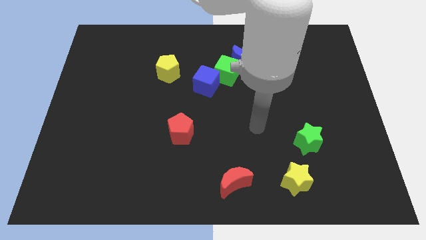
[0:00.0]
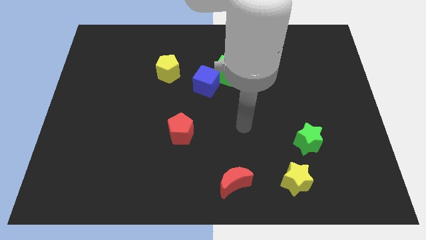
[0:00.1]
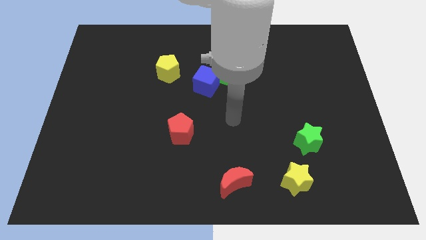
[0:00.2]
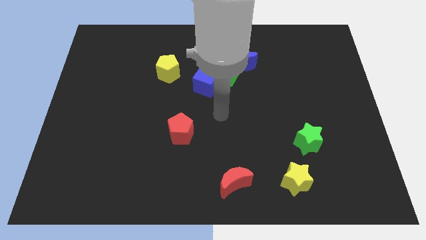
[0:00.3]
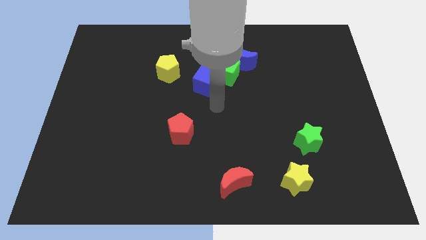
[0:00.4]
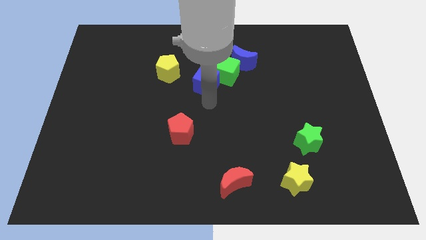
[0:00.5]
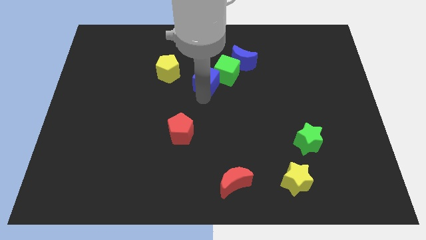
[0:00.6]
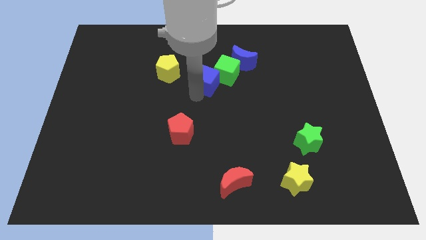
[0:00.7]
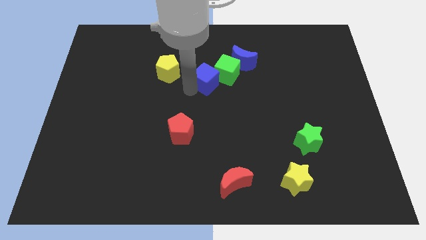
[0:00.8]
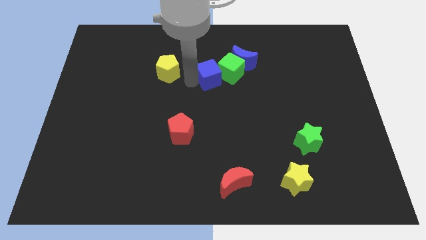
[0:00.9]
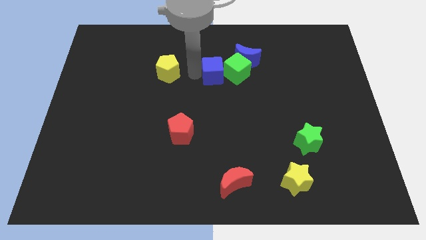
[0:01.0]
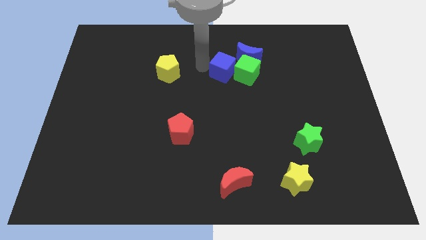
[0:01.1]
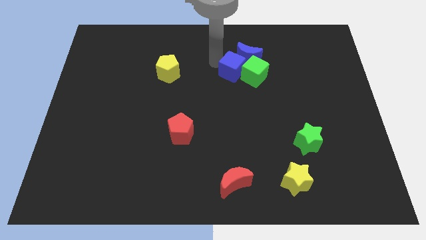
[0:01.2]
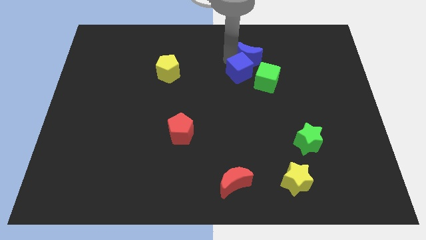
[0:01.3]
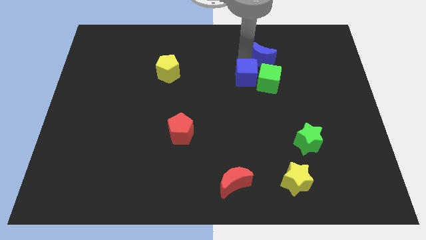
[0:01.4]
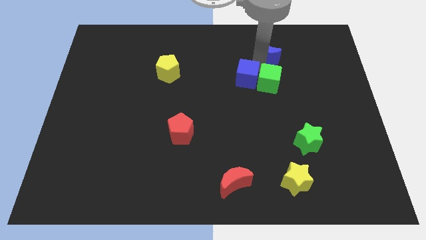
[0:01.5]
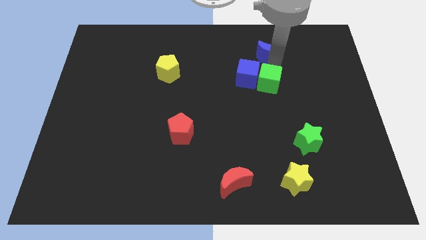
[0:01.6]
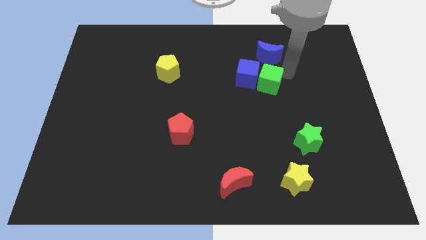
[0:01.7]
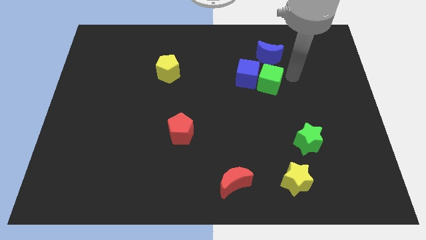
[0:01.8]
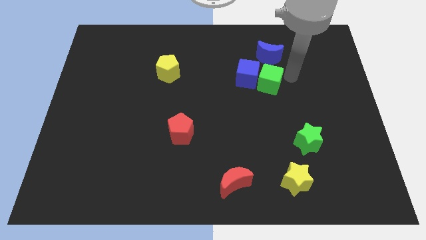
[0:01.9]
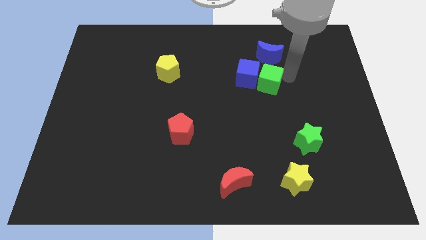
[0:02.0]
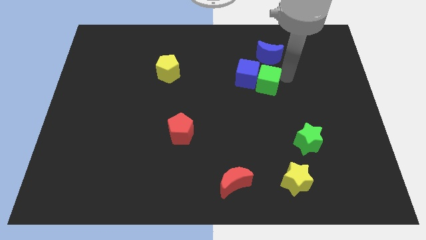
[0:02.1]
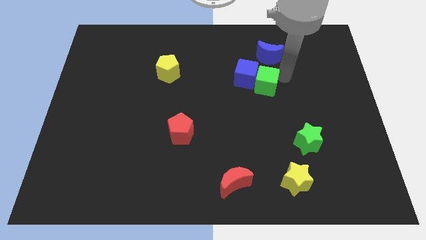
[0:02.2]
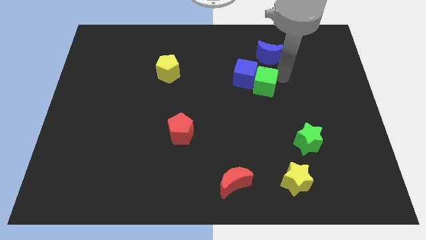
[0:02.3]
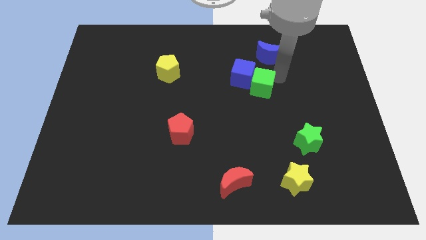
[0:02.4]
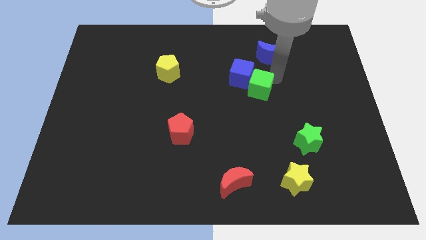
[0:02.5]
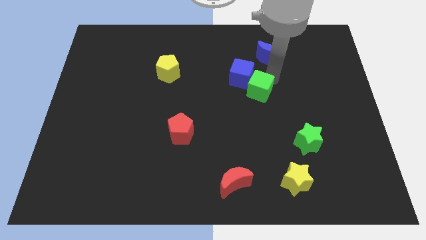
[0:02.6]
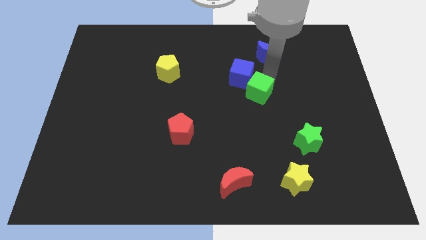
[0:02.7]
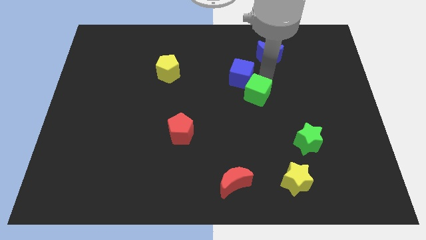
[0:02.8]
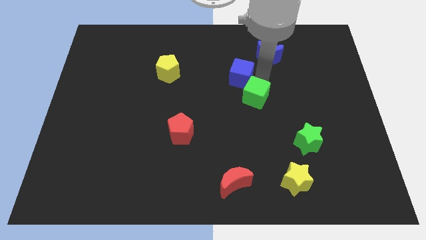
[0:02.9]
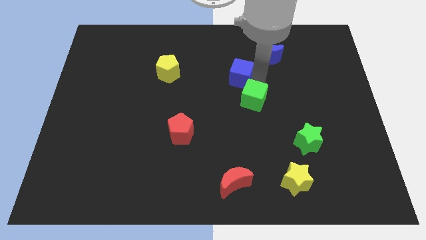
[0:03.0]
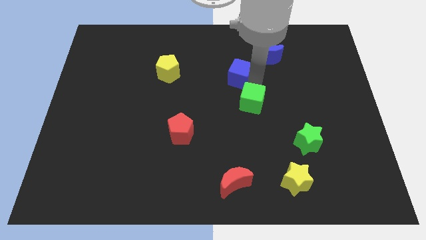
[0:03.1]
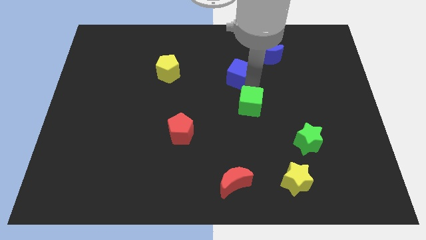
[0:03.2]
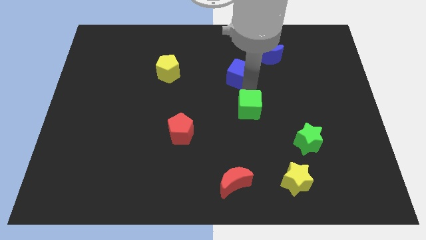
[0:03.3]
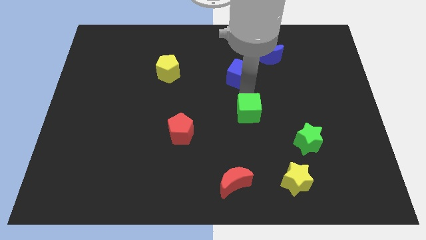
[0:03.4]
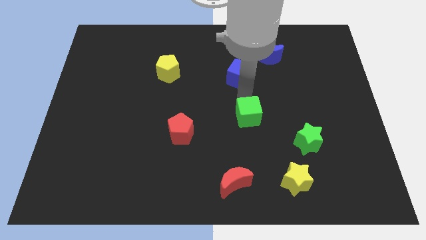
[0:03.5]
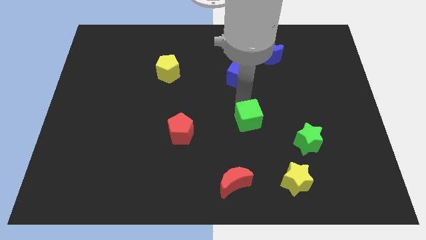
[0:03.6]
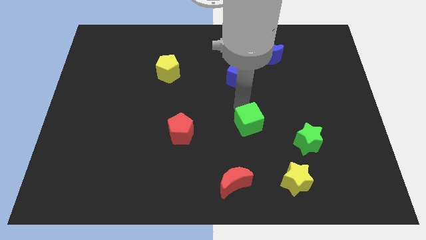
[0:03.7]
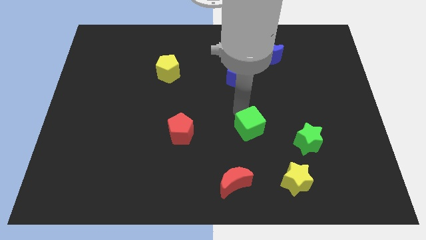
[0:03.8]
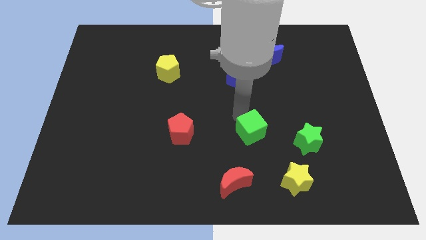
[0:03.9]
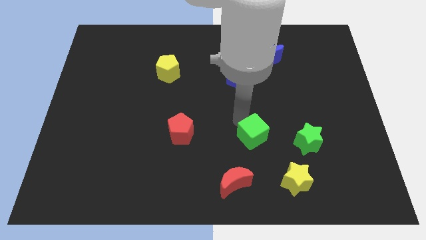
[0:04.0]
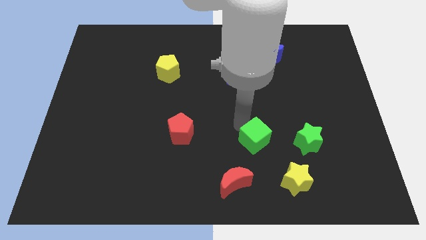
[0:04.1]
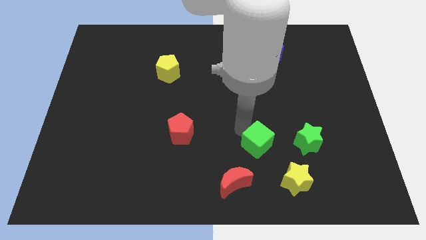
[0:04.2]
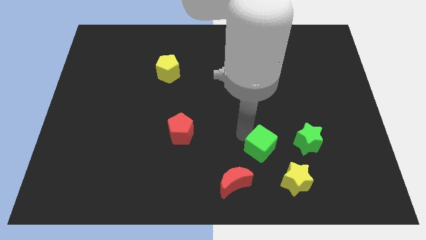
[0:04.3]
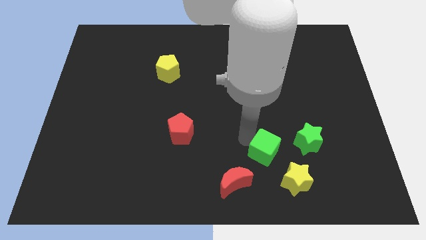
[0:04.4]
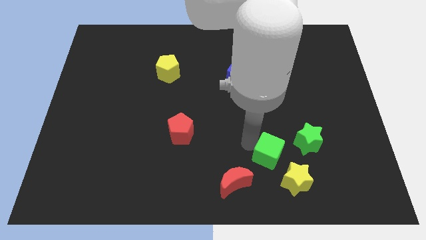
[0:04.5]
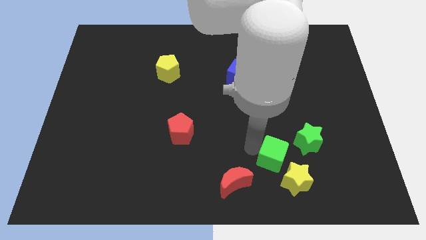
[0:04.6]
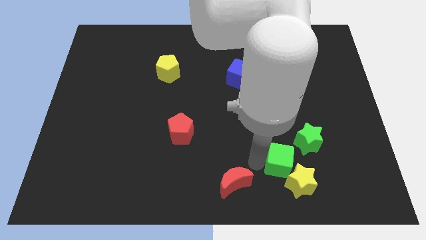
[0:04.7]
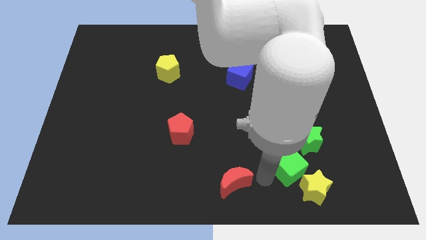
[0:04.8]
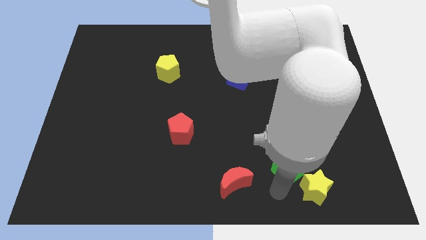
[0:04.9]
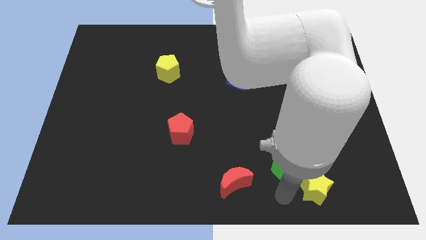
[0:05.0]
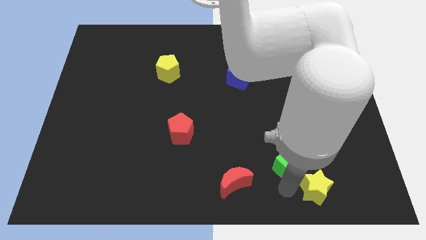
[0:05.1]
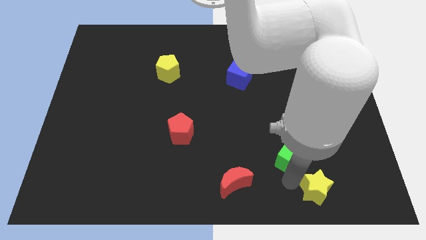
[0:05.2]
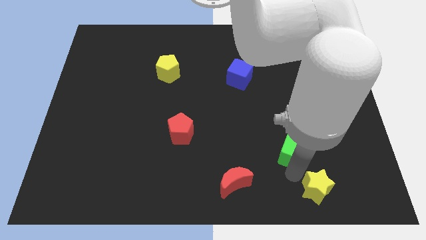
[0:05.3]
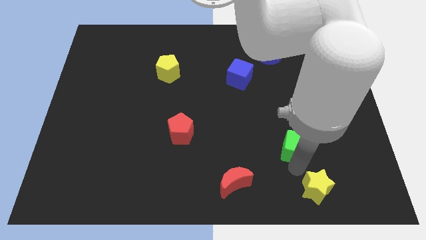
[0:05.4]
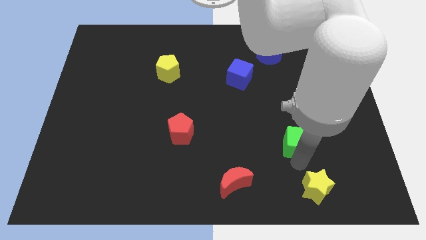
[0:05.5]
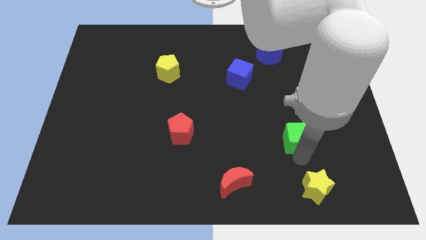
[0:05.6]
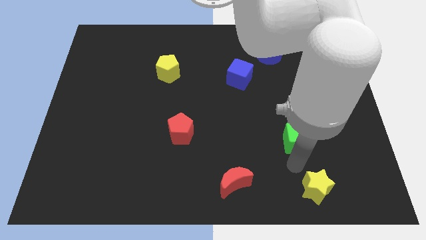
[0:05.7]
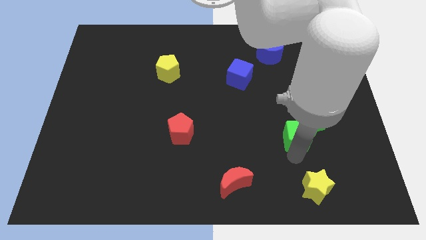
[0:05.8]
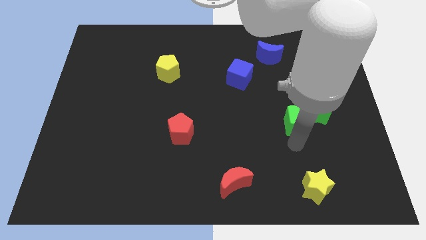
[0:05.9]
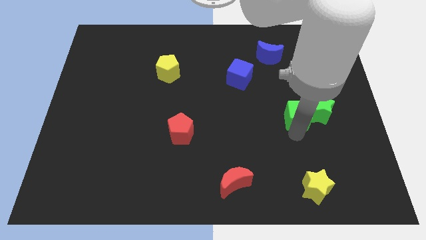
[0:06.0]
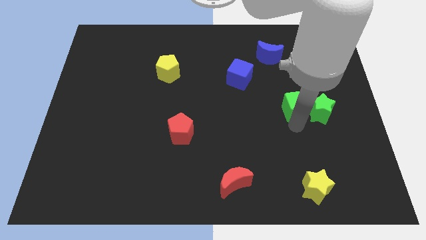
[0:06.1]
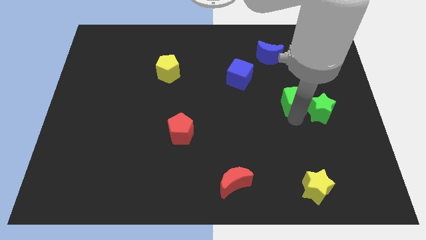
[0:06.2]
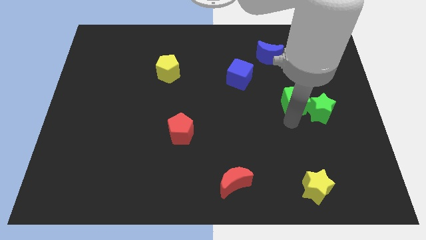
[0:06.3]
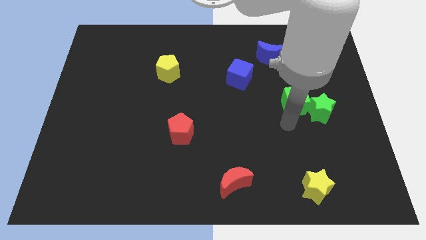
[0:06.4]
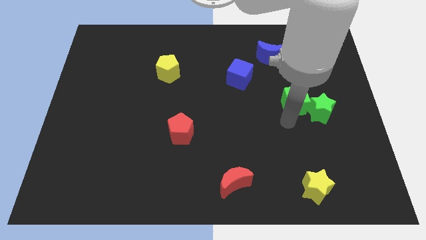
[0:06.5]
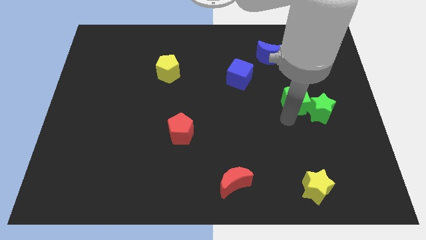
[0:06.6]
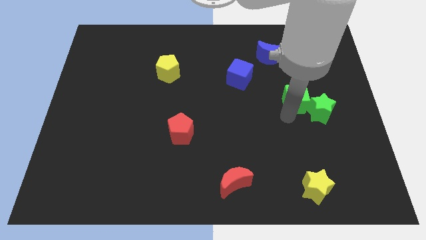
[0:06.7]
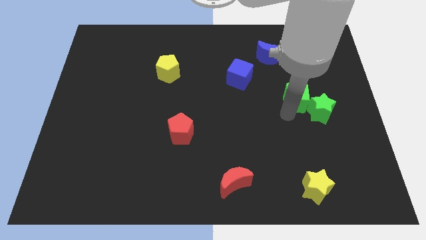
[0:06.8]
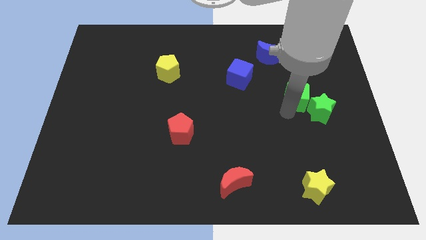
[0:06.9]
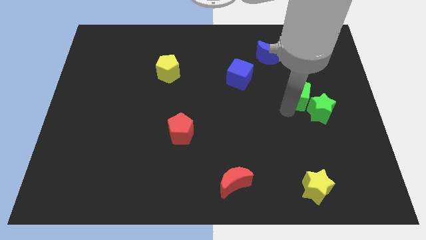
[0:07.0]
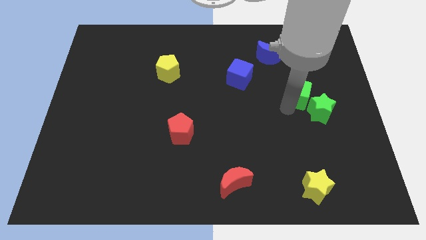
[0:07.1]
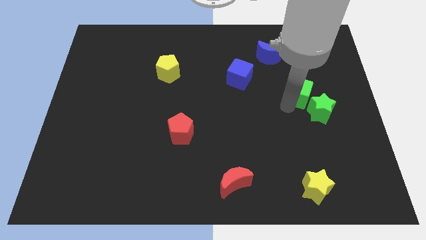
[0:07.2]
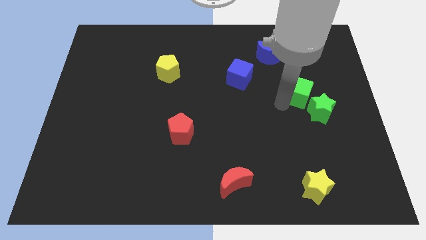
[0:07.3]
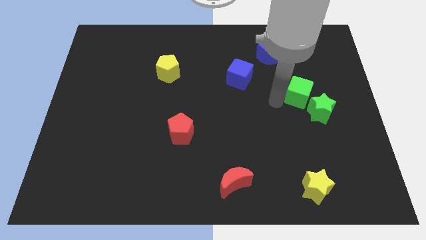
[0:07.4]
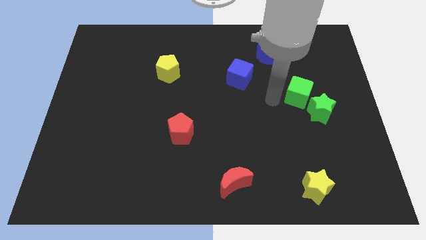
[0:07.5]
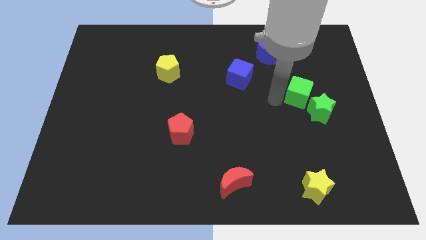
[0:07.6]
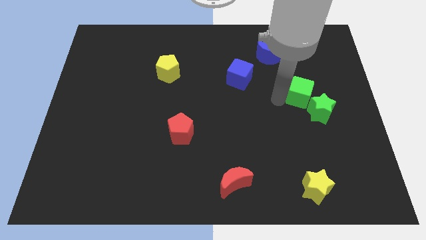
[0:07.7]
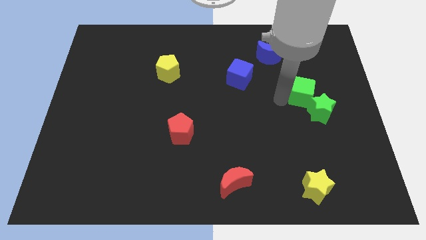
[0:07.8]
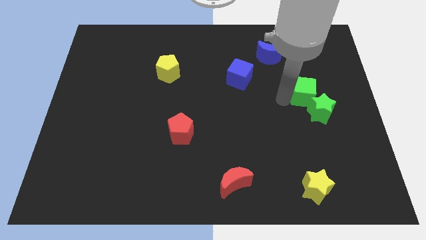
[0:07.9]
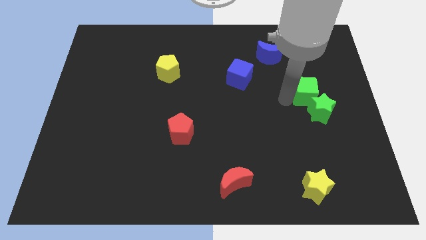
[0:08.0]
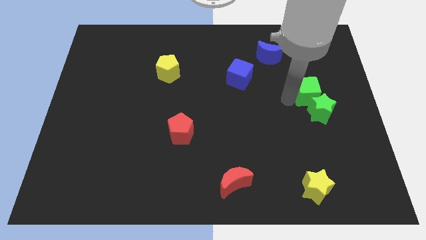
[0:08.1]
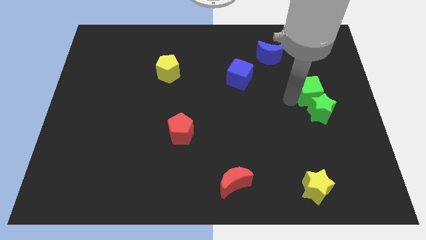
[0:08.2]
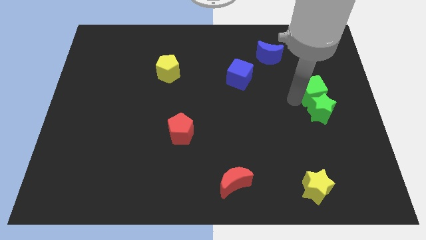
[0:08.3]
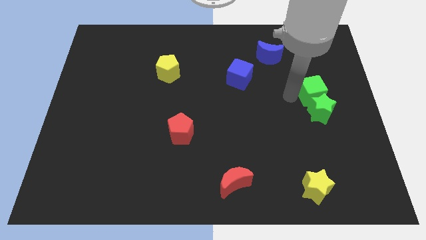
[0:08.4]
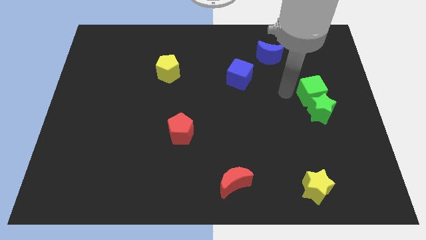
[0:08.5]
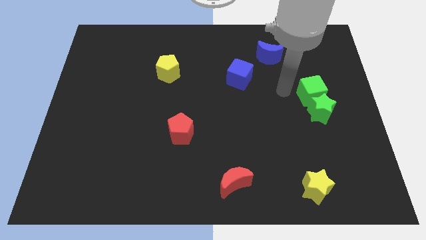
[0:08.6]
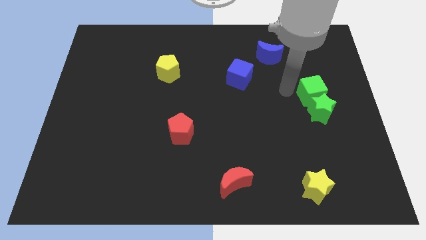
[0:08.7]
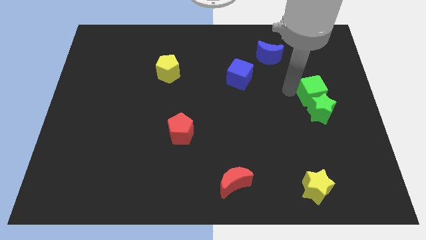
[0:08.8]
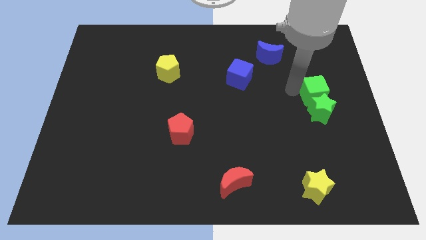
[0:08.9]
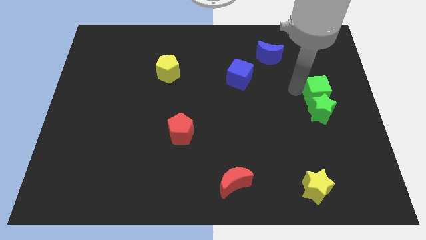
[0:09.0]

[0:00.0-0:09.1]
move the green cube to the center right
